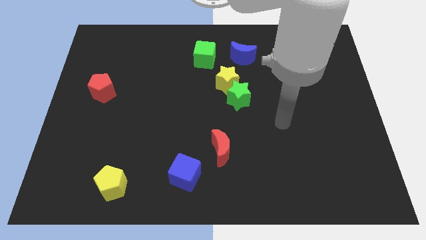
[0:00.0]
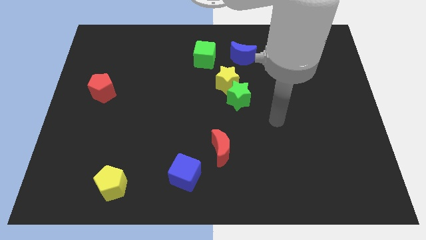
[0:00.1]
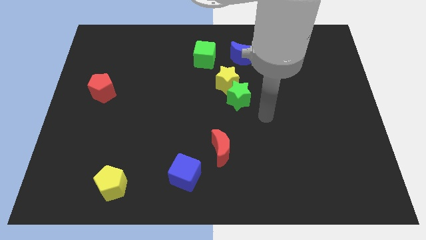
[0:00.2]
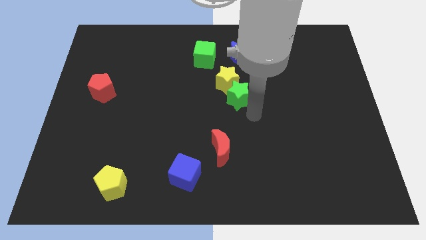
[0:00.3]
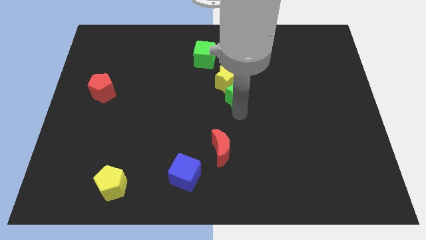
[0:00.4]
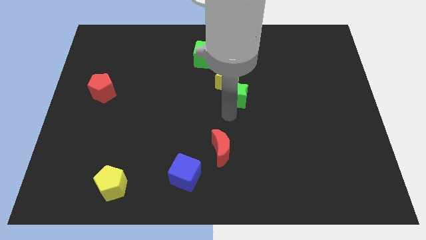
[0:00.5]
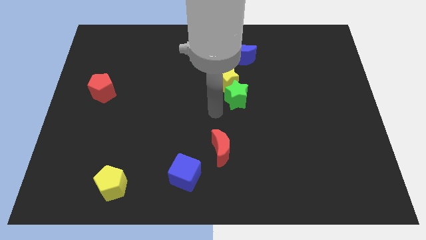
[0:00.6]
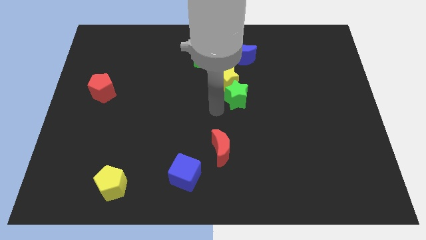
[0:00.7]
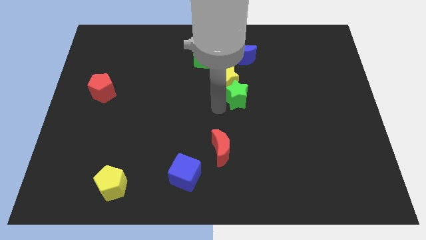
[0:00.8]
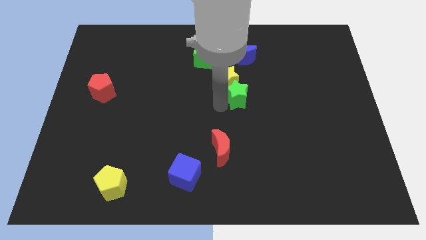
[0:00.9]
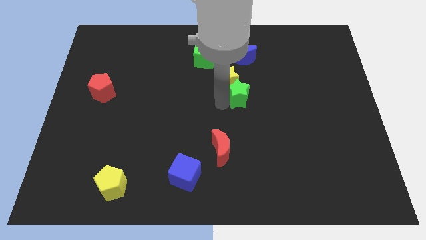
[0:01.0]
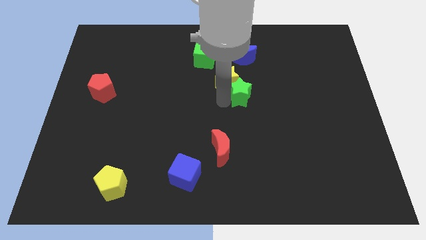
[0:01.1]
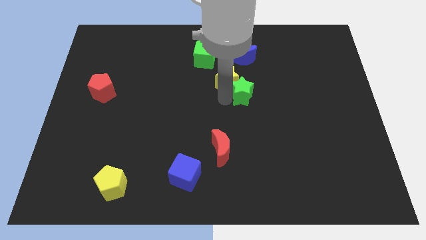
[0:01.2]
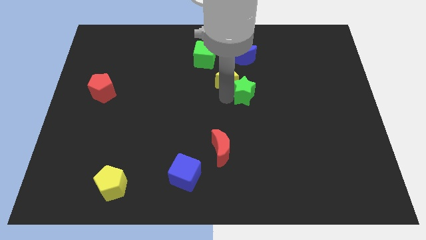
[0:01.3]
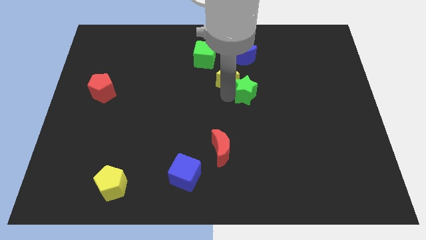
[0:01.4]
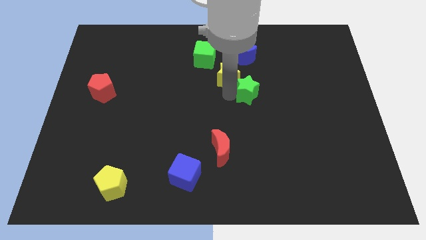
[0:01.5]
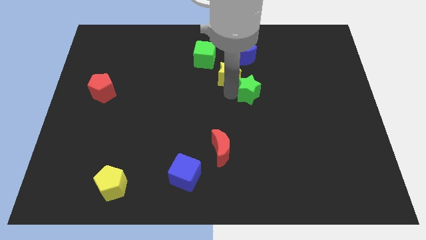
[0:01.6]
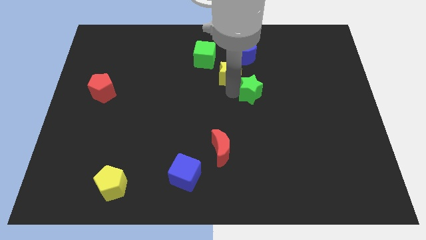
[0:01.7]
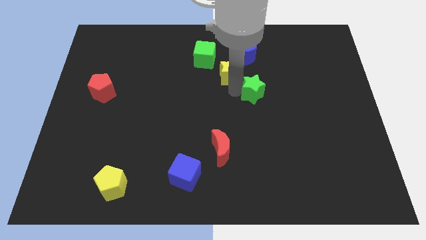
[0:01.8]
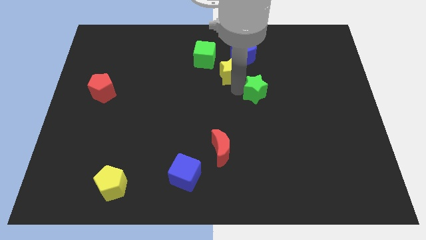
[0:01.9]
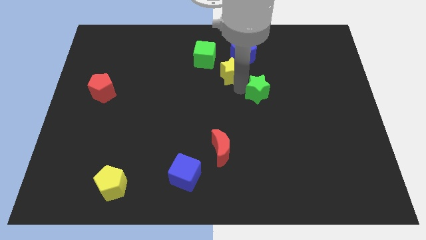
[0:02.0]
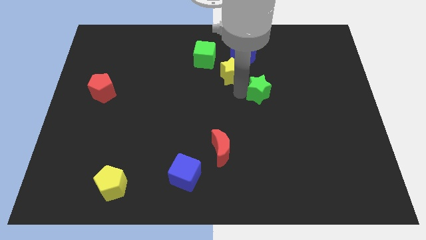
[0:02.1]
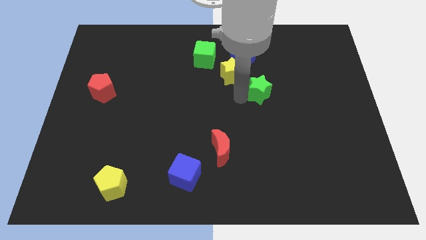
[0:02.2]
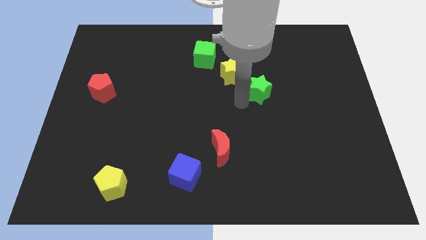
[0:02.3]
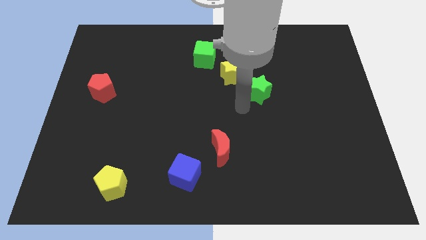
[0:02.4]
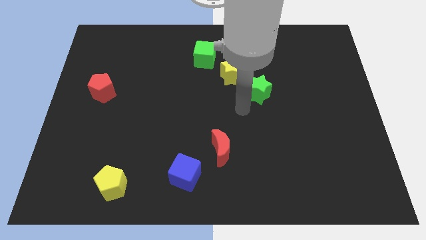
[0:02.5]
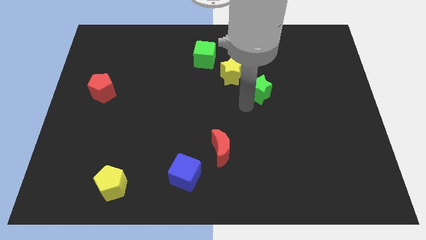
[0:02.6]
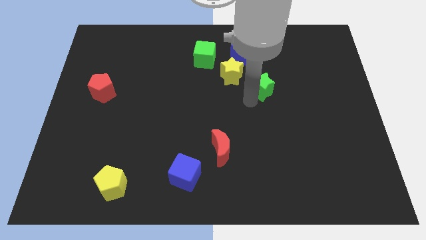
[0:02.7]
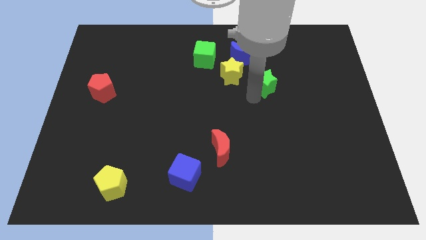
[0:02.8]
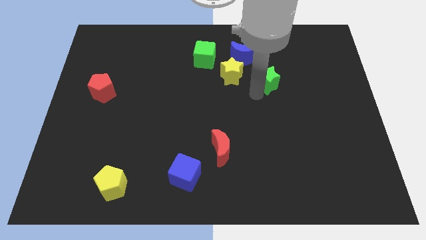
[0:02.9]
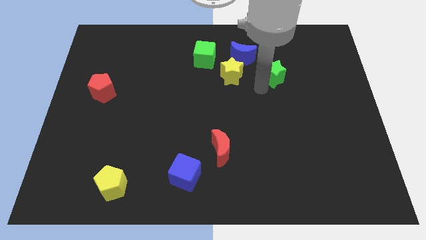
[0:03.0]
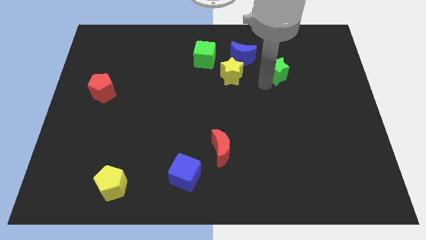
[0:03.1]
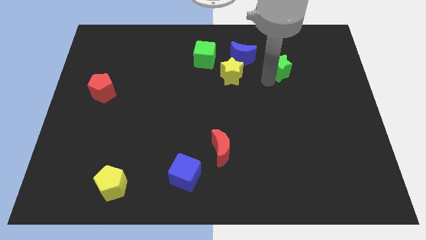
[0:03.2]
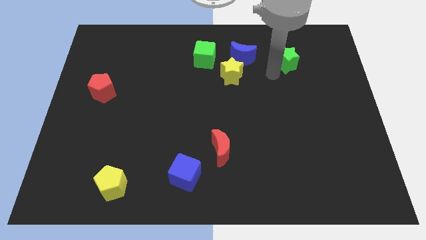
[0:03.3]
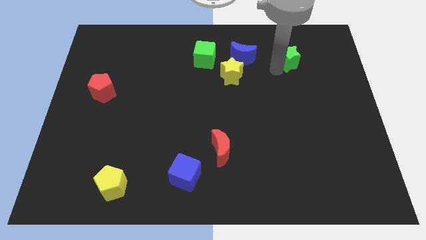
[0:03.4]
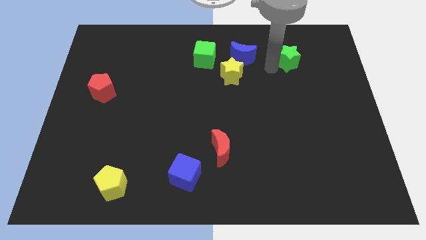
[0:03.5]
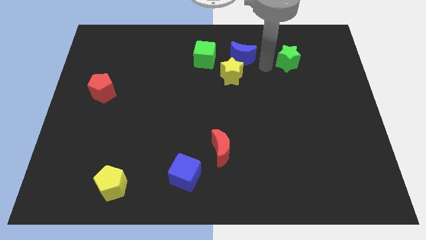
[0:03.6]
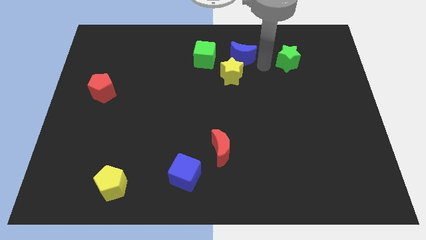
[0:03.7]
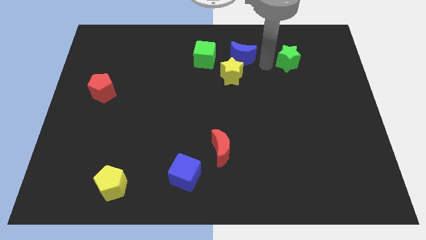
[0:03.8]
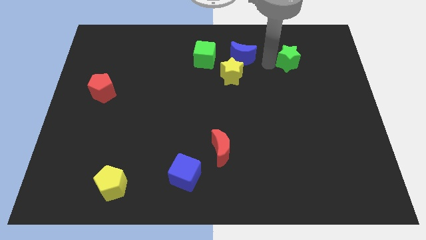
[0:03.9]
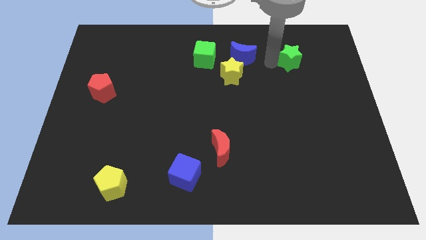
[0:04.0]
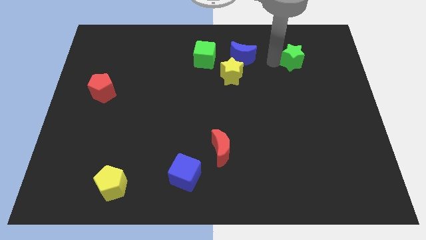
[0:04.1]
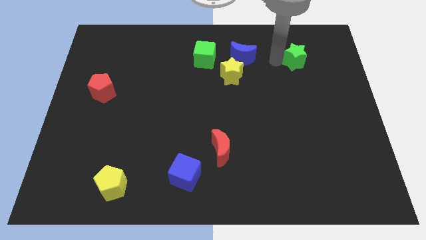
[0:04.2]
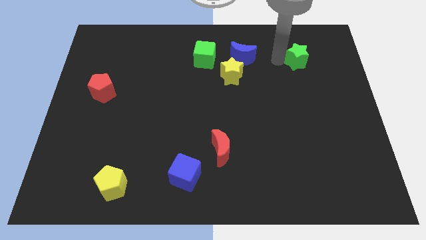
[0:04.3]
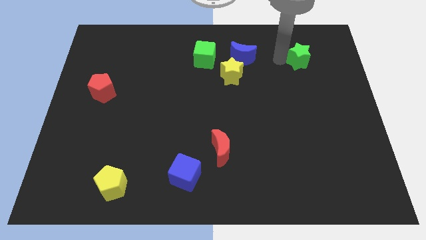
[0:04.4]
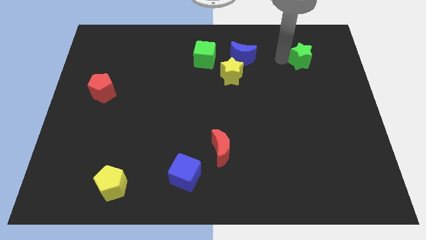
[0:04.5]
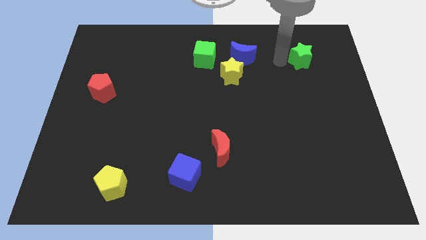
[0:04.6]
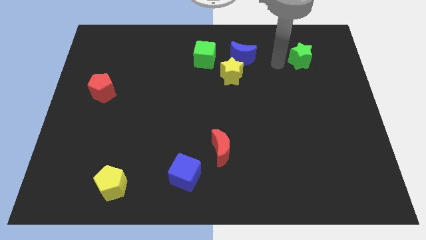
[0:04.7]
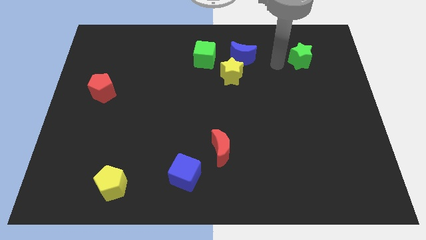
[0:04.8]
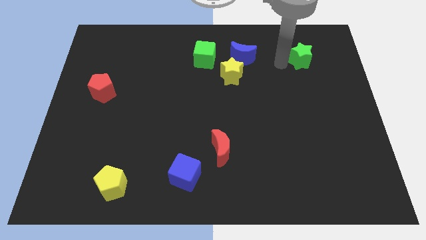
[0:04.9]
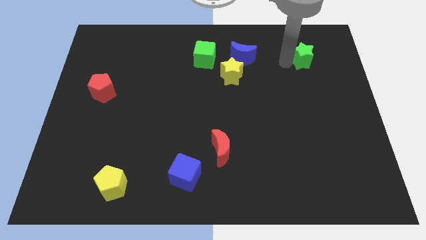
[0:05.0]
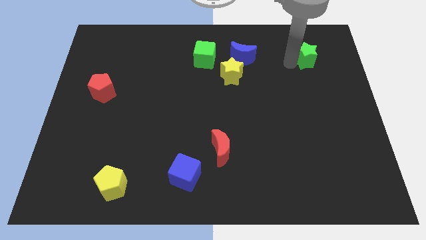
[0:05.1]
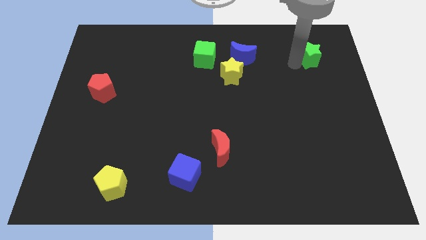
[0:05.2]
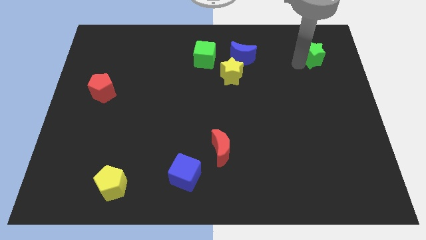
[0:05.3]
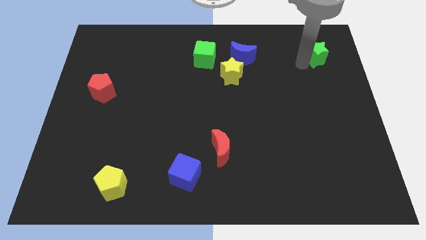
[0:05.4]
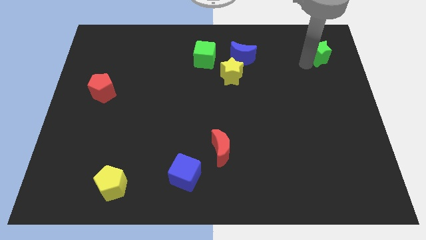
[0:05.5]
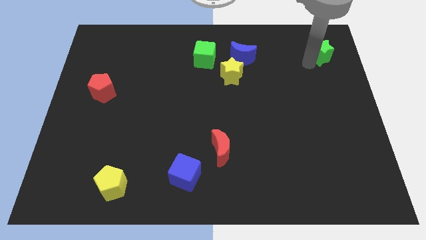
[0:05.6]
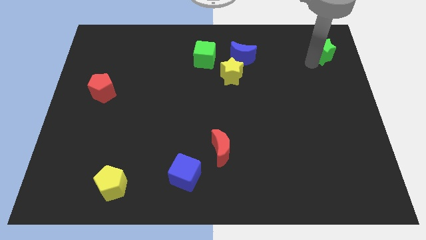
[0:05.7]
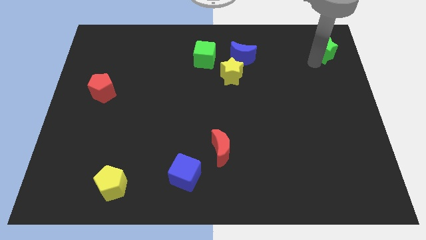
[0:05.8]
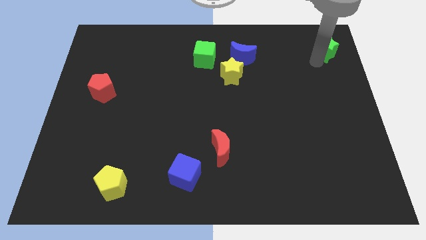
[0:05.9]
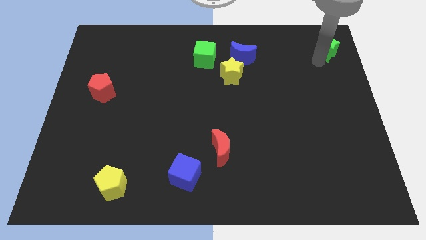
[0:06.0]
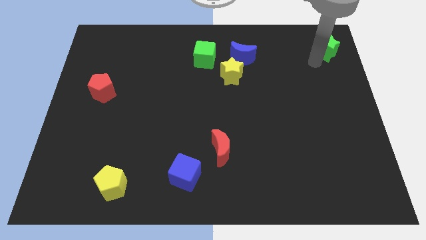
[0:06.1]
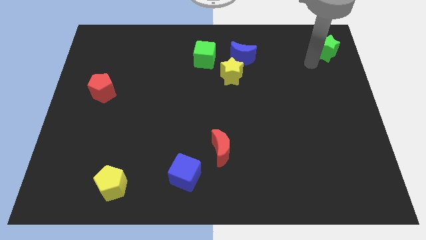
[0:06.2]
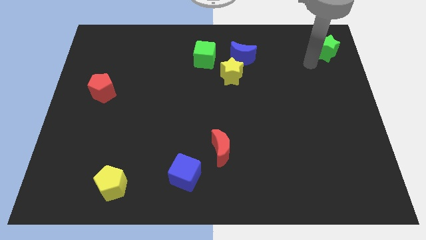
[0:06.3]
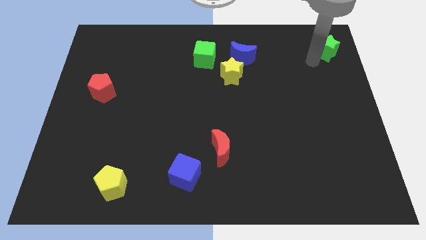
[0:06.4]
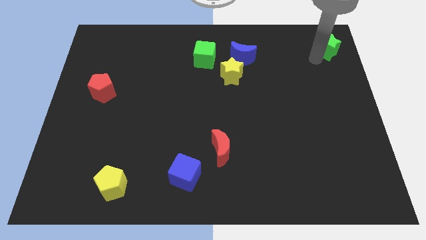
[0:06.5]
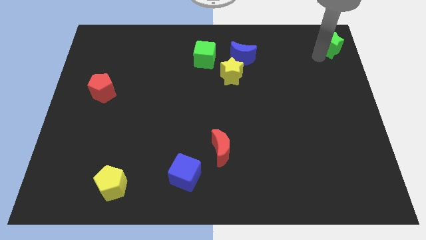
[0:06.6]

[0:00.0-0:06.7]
move the green star to the top right corner

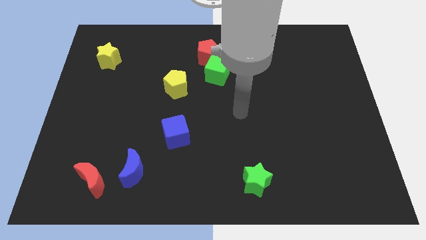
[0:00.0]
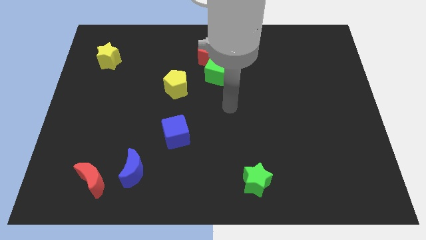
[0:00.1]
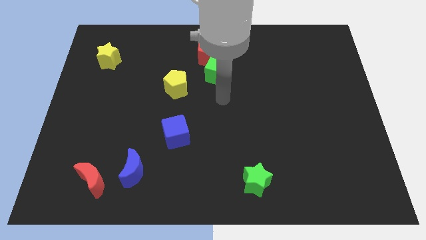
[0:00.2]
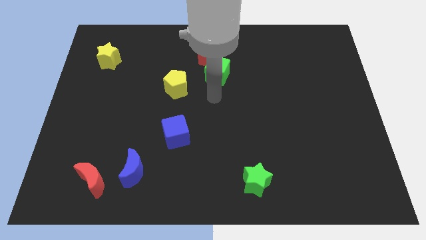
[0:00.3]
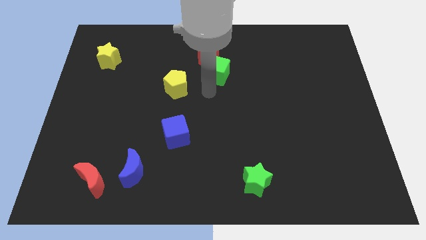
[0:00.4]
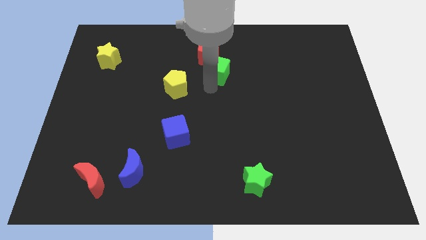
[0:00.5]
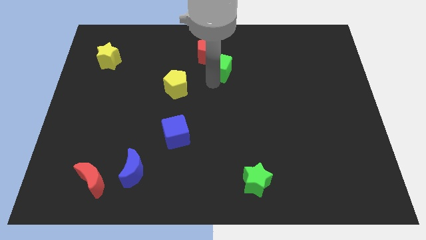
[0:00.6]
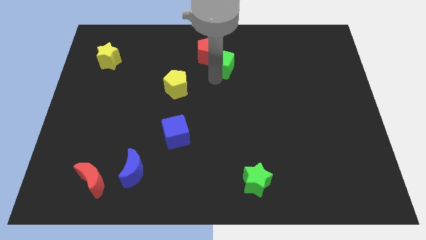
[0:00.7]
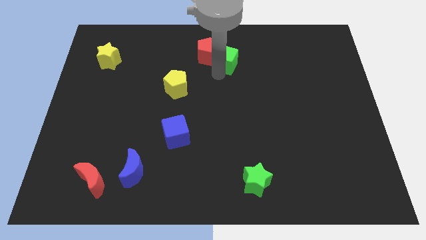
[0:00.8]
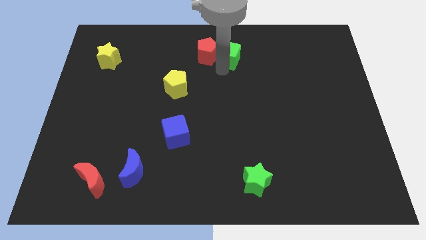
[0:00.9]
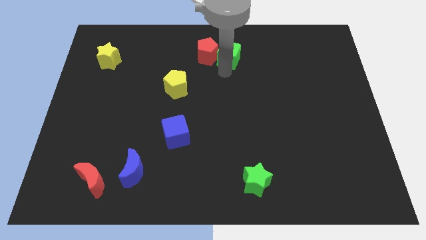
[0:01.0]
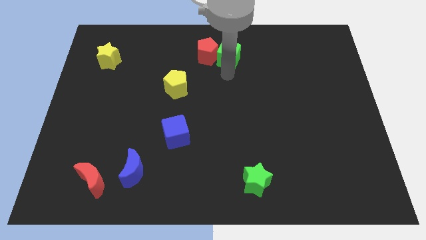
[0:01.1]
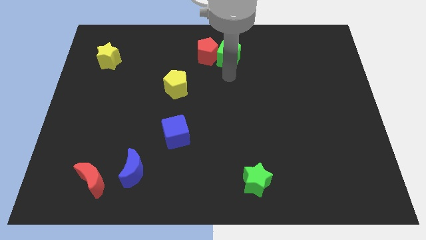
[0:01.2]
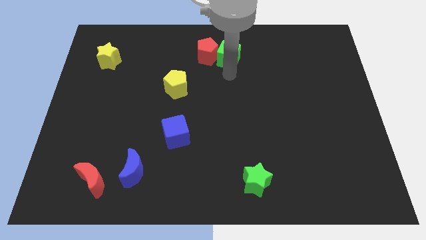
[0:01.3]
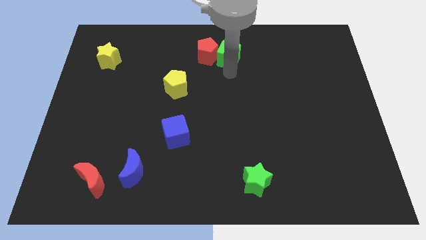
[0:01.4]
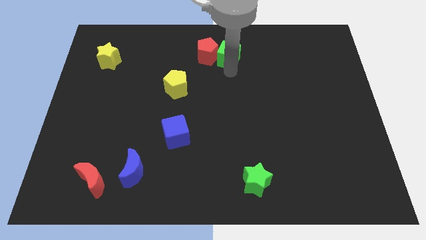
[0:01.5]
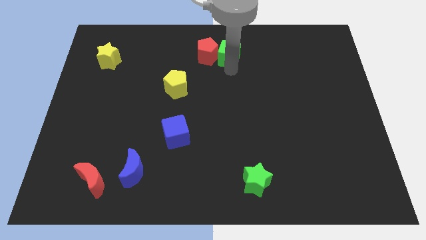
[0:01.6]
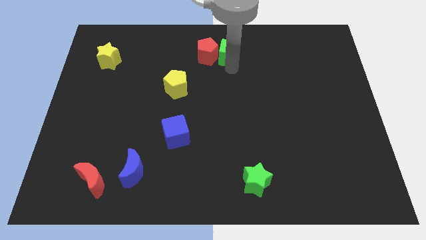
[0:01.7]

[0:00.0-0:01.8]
put the green cube to the top side
